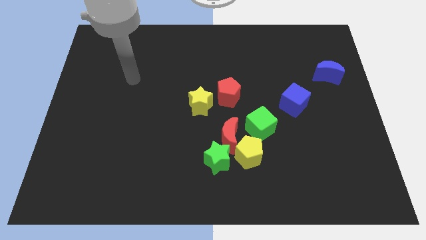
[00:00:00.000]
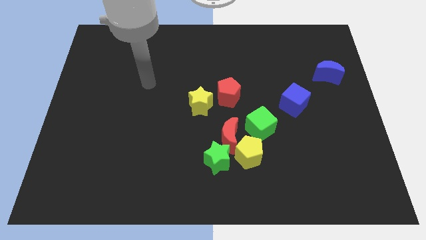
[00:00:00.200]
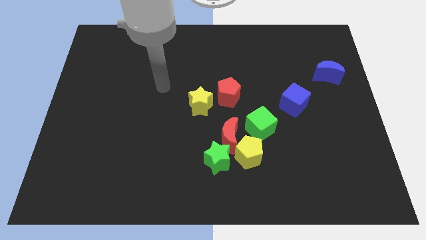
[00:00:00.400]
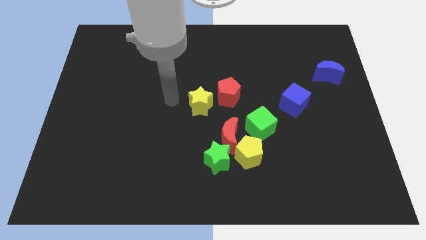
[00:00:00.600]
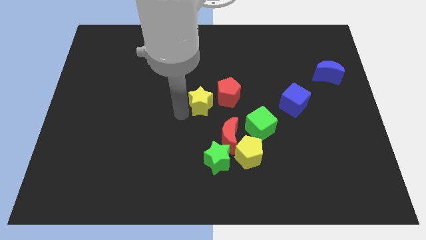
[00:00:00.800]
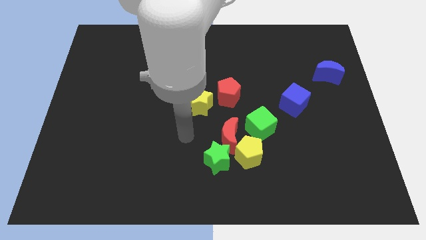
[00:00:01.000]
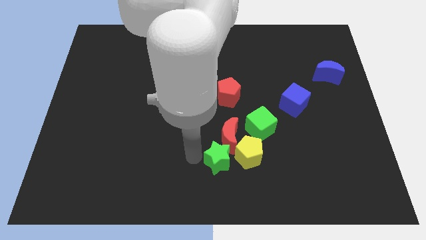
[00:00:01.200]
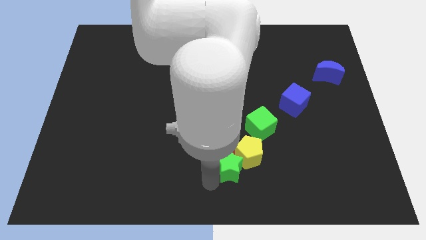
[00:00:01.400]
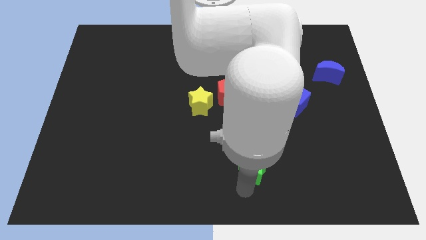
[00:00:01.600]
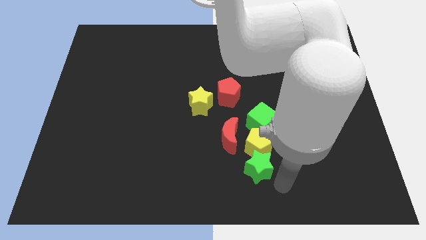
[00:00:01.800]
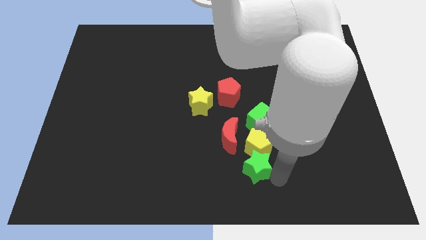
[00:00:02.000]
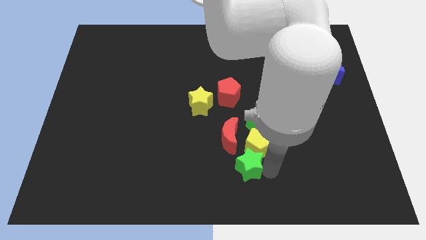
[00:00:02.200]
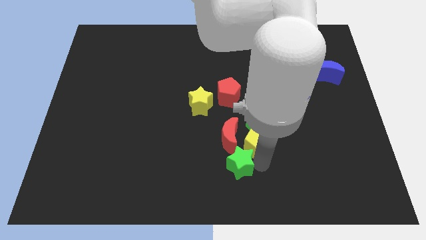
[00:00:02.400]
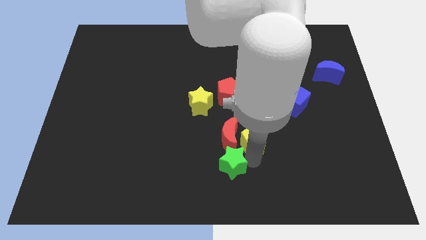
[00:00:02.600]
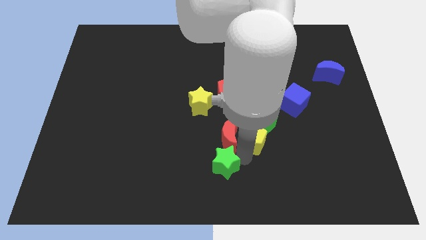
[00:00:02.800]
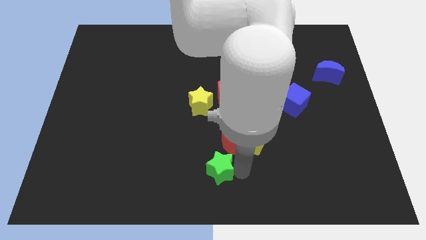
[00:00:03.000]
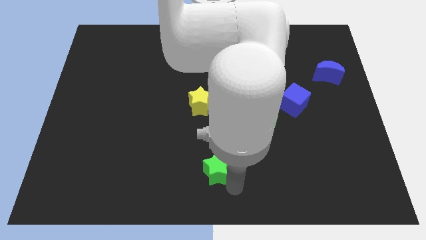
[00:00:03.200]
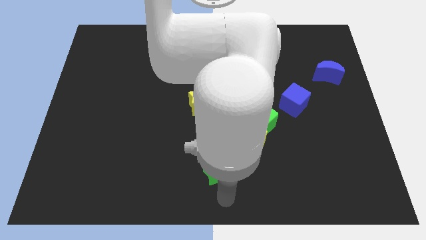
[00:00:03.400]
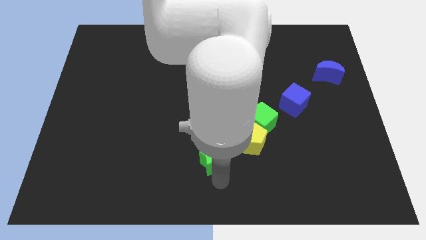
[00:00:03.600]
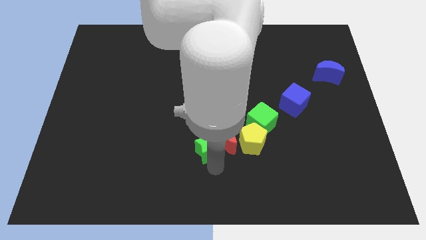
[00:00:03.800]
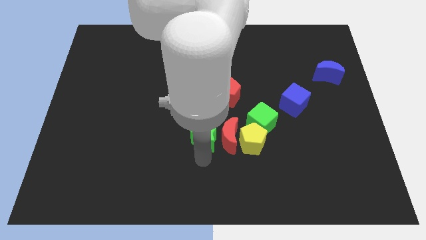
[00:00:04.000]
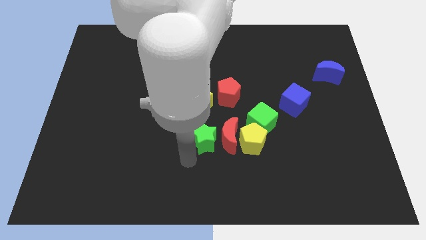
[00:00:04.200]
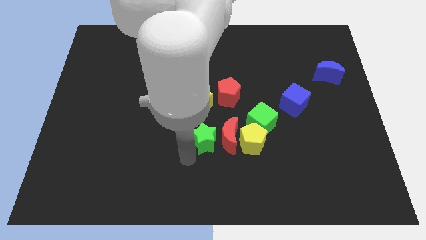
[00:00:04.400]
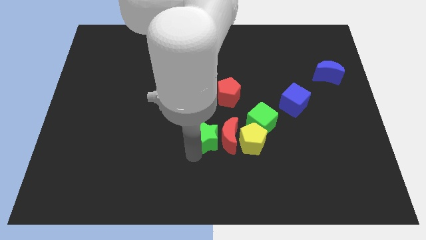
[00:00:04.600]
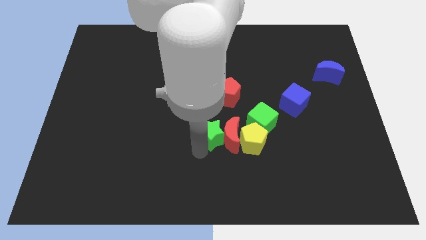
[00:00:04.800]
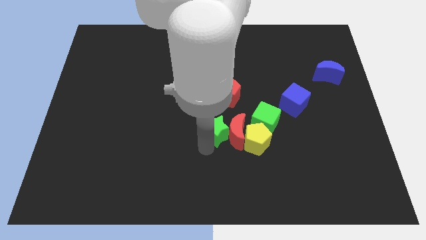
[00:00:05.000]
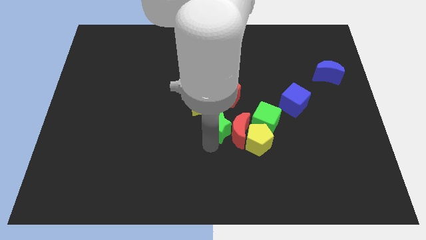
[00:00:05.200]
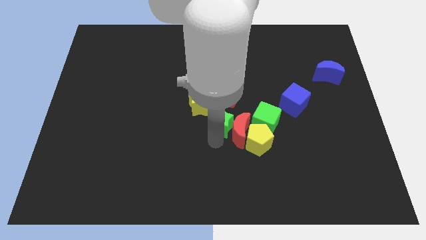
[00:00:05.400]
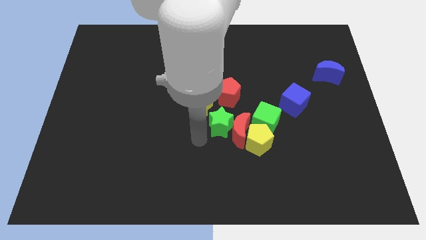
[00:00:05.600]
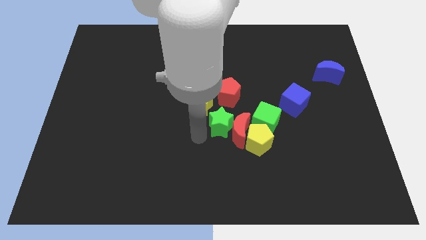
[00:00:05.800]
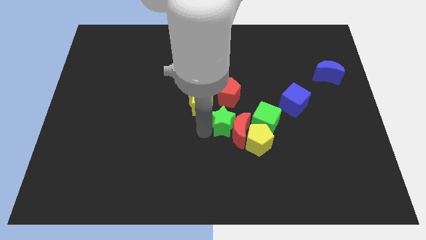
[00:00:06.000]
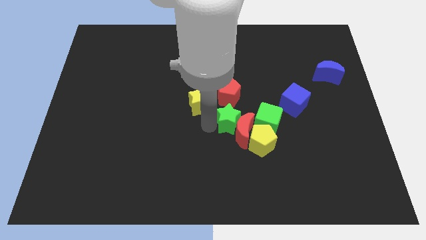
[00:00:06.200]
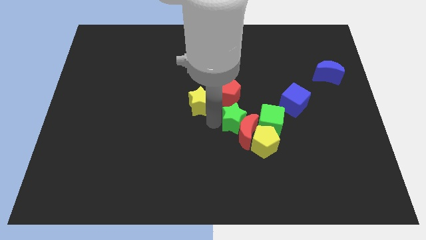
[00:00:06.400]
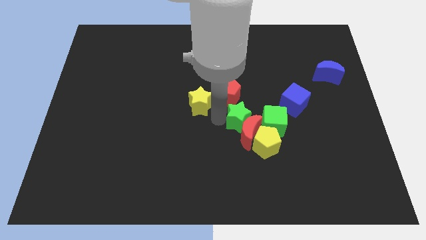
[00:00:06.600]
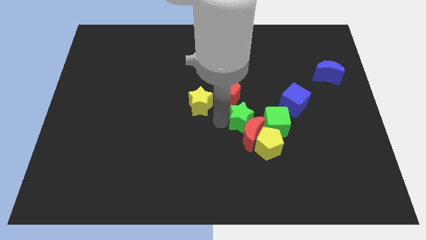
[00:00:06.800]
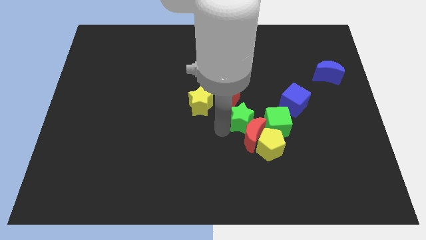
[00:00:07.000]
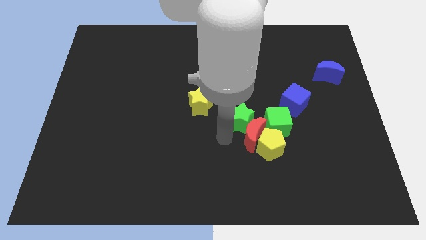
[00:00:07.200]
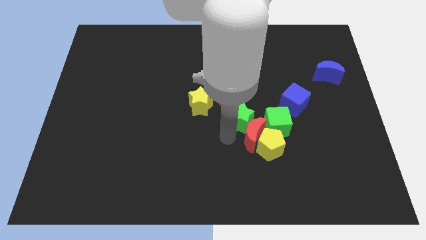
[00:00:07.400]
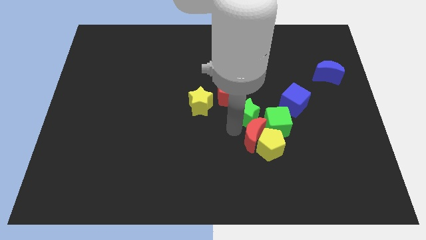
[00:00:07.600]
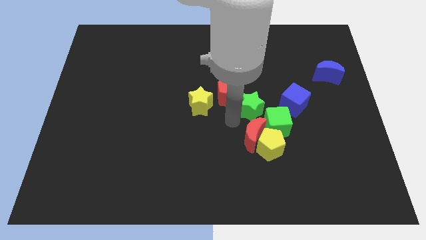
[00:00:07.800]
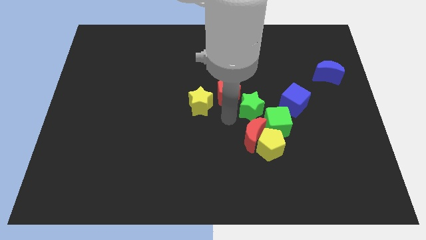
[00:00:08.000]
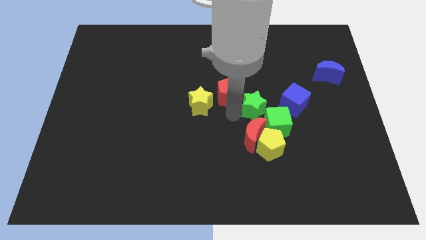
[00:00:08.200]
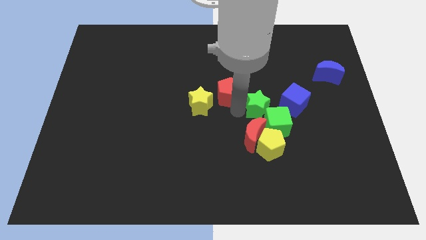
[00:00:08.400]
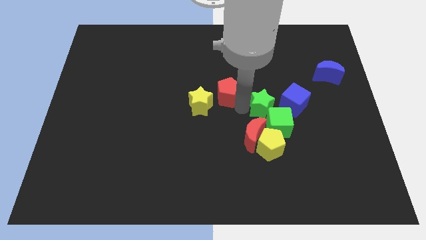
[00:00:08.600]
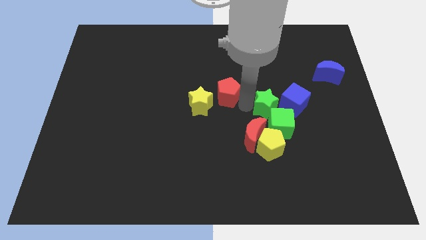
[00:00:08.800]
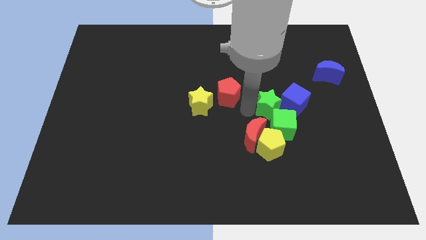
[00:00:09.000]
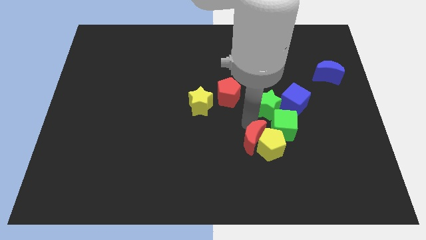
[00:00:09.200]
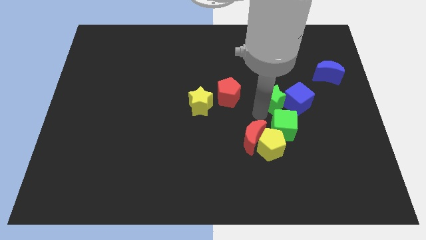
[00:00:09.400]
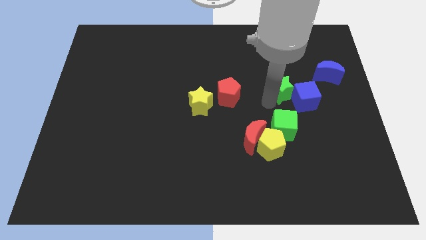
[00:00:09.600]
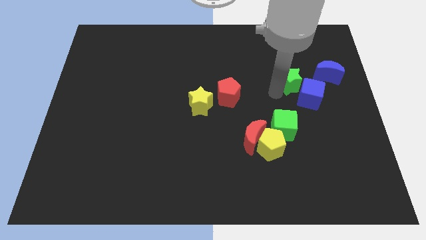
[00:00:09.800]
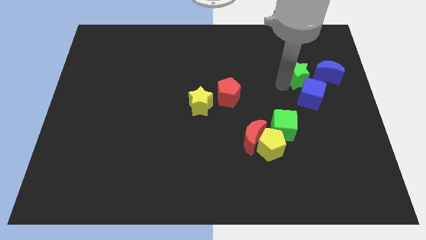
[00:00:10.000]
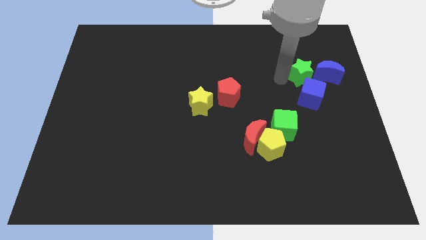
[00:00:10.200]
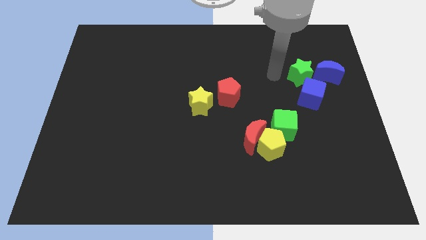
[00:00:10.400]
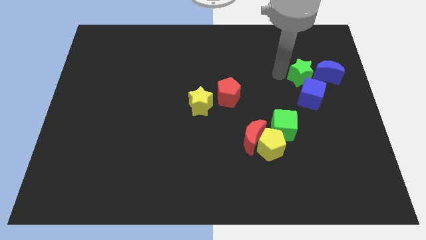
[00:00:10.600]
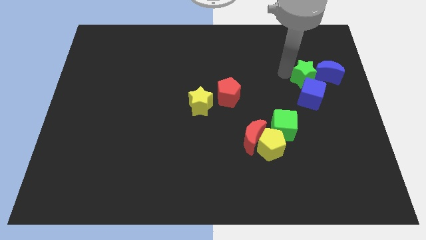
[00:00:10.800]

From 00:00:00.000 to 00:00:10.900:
slide the green star towards the blue moon
